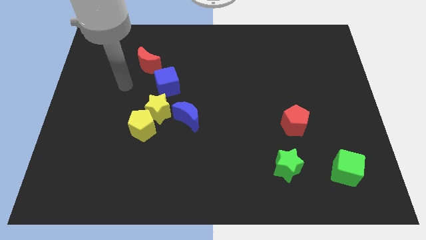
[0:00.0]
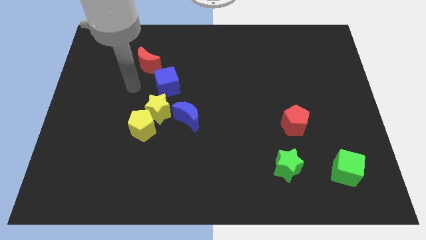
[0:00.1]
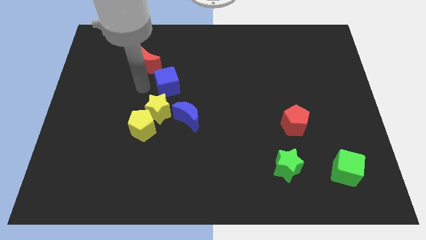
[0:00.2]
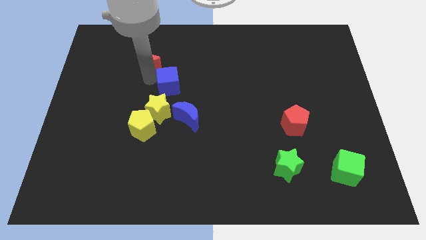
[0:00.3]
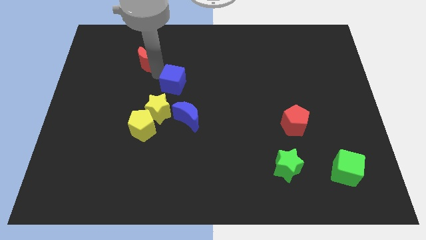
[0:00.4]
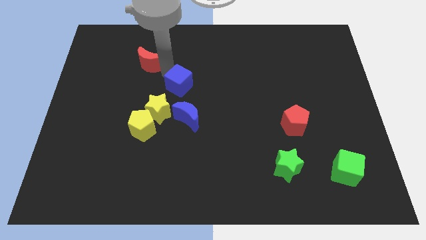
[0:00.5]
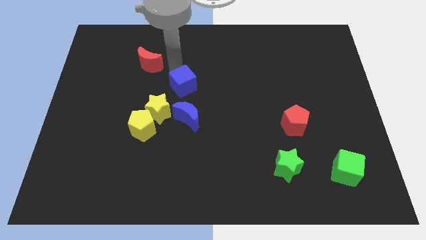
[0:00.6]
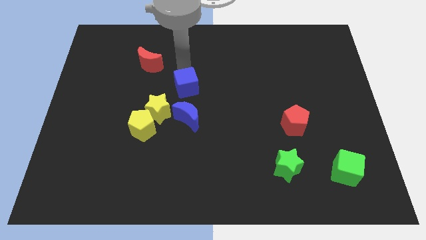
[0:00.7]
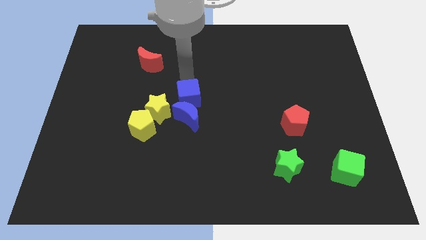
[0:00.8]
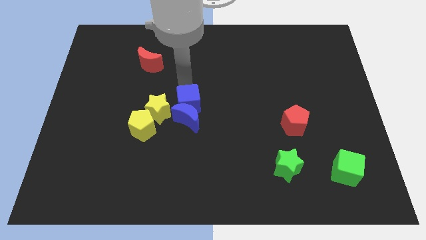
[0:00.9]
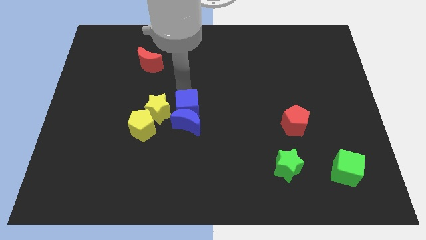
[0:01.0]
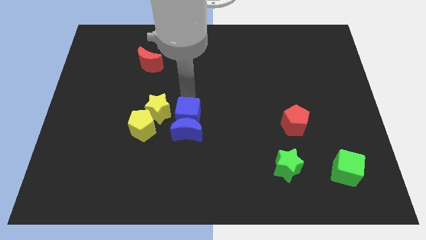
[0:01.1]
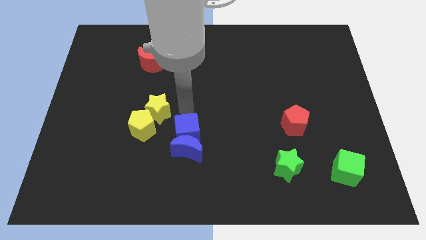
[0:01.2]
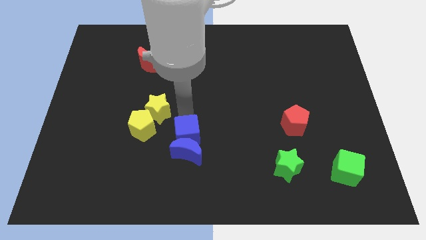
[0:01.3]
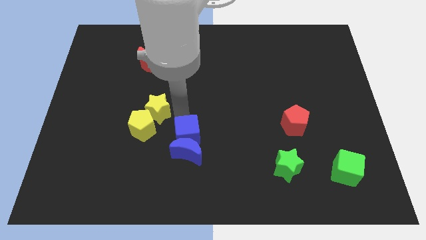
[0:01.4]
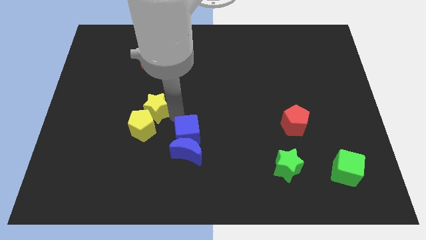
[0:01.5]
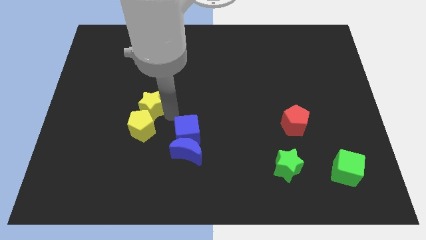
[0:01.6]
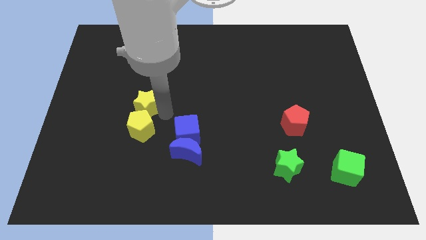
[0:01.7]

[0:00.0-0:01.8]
move the yellow star away from the group

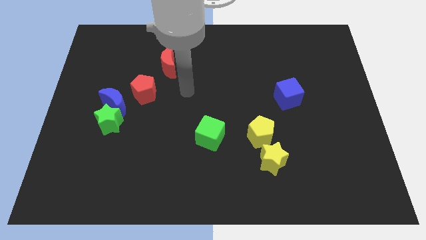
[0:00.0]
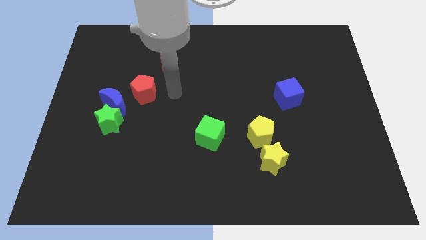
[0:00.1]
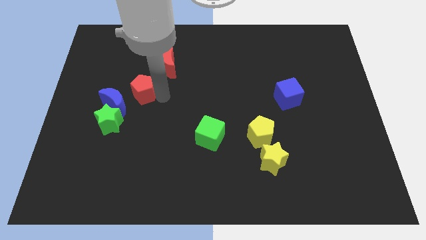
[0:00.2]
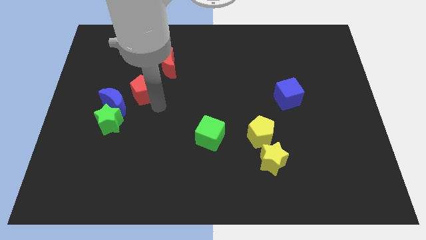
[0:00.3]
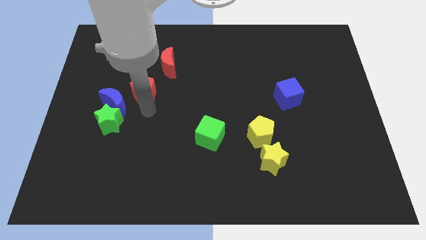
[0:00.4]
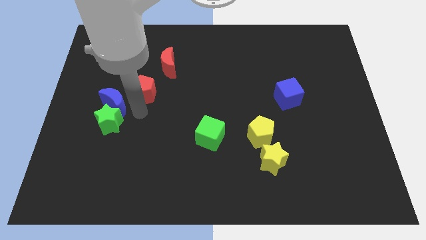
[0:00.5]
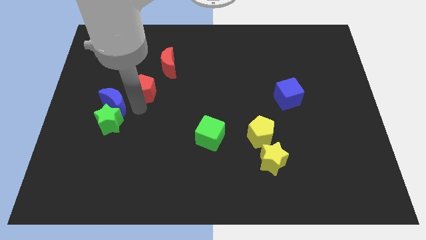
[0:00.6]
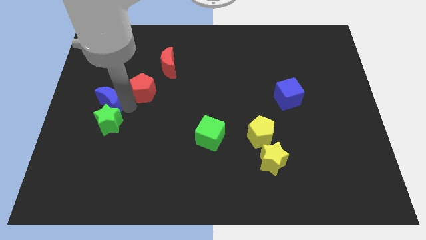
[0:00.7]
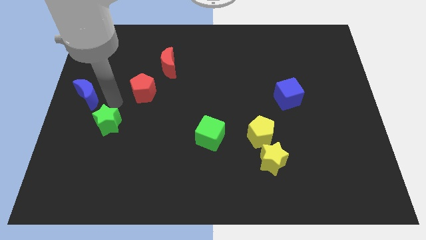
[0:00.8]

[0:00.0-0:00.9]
move the green star away from the blue moon

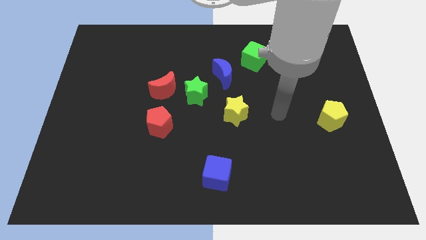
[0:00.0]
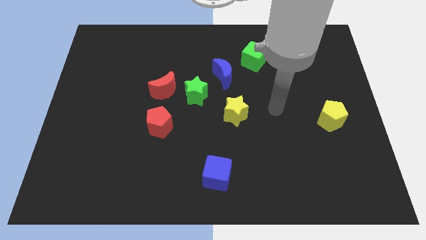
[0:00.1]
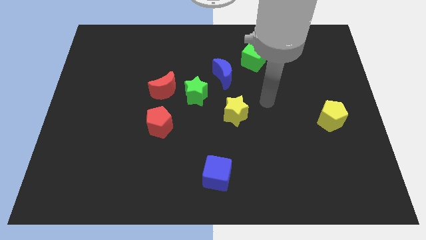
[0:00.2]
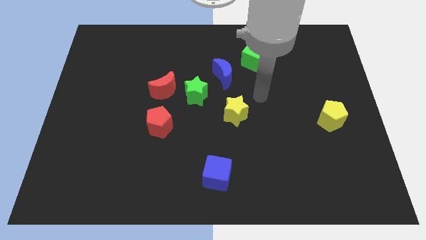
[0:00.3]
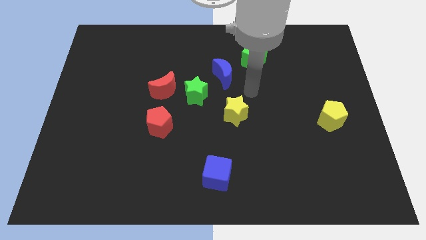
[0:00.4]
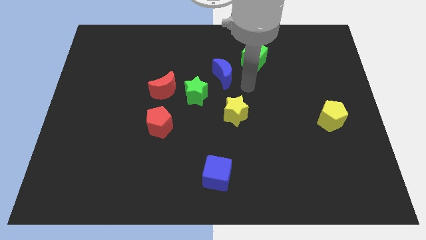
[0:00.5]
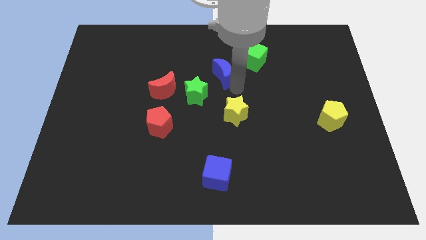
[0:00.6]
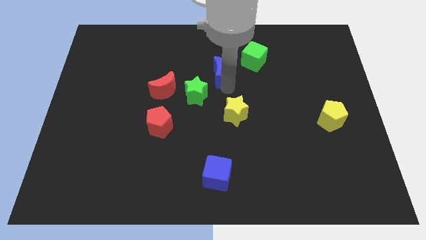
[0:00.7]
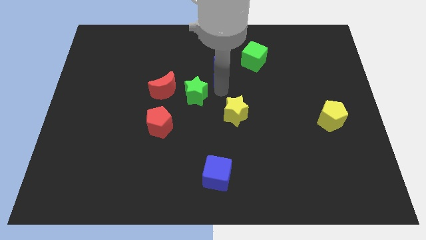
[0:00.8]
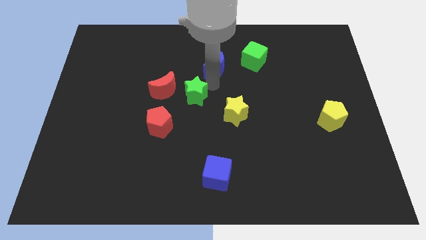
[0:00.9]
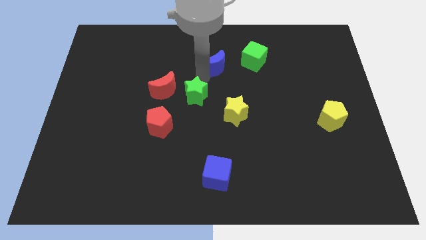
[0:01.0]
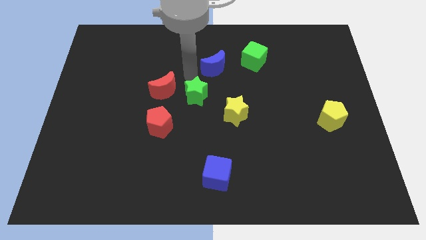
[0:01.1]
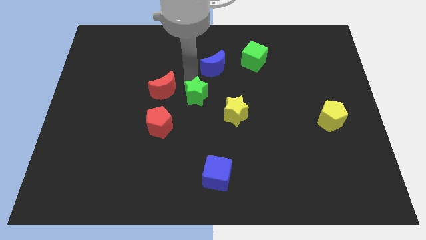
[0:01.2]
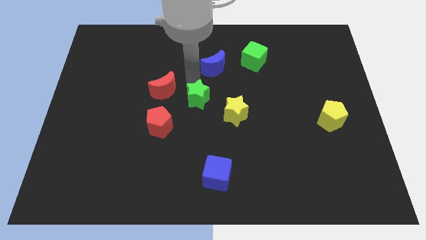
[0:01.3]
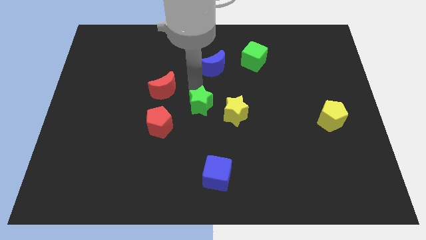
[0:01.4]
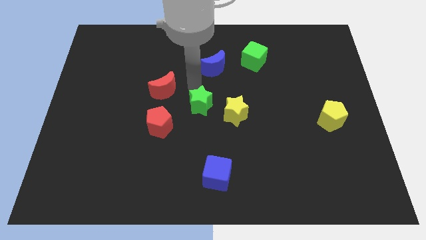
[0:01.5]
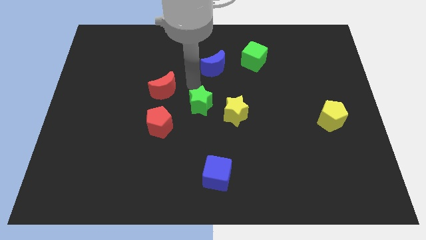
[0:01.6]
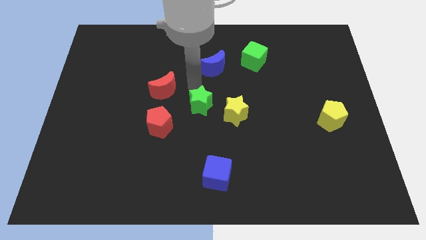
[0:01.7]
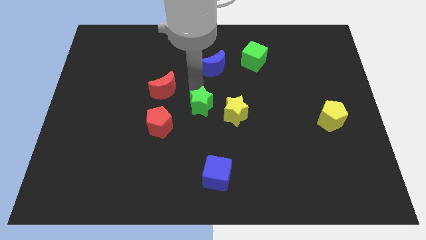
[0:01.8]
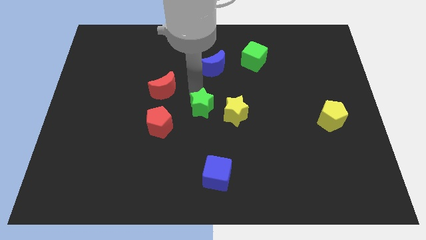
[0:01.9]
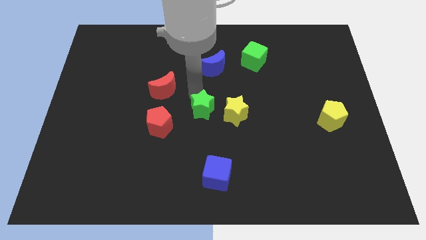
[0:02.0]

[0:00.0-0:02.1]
pull the green star apart from the red moon and blue moon

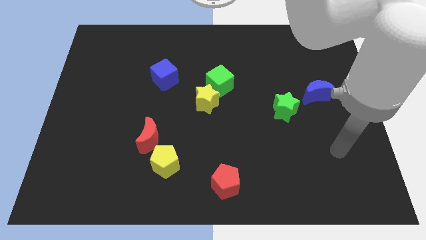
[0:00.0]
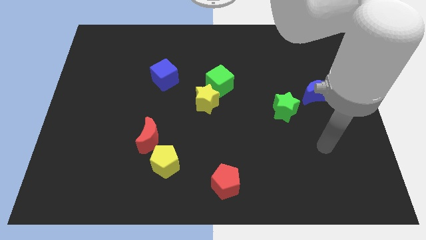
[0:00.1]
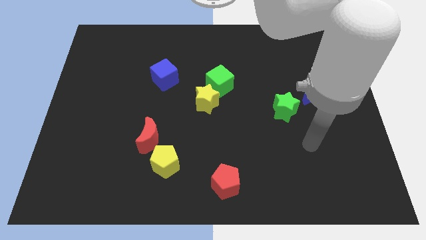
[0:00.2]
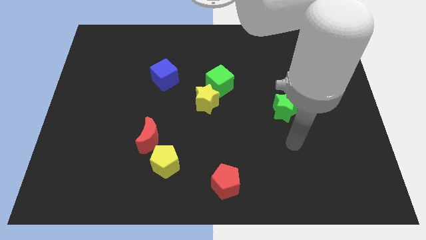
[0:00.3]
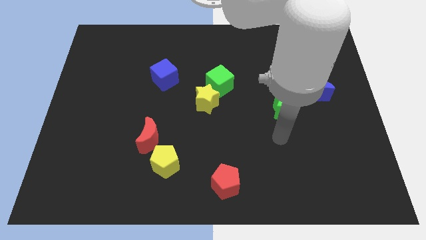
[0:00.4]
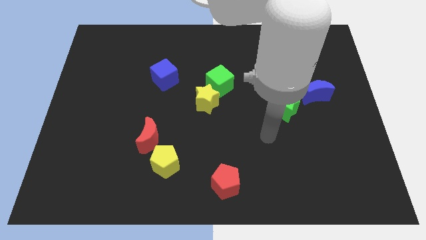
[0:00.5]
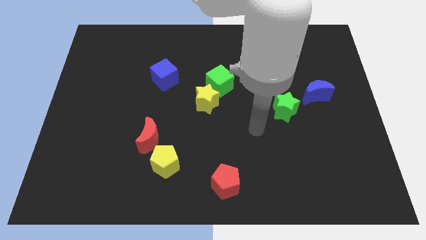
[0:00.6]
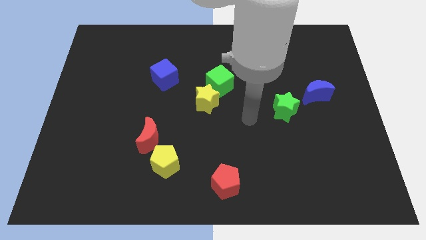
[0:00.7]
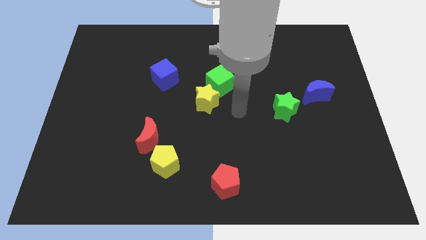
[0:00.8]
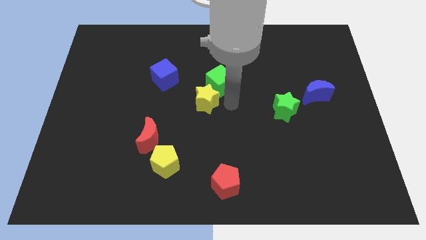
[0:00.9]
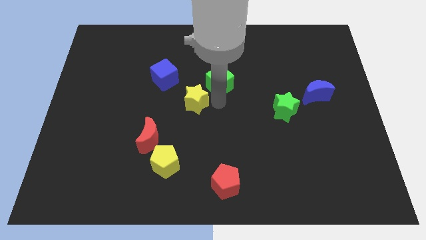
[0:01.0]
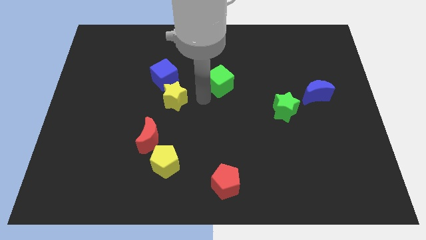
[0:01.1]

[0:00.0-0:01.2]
separate the green cube from the yellow star

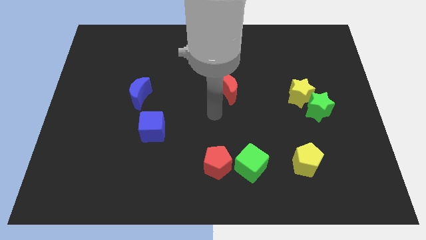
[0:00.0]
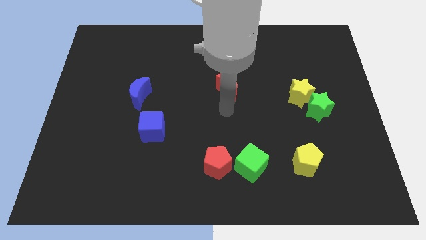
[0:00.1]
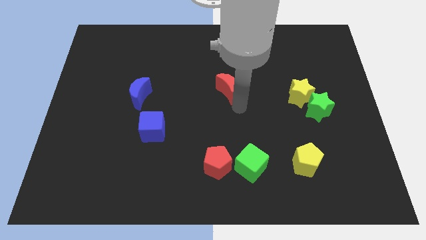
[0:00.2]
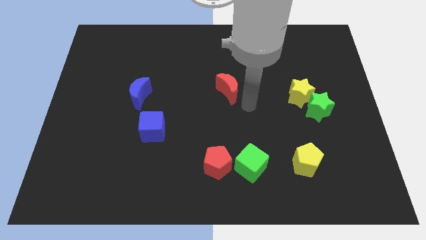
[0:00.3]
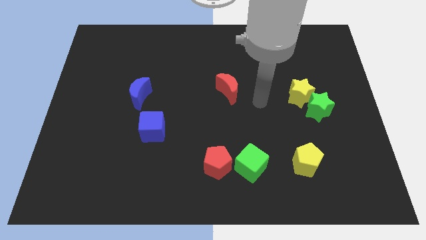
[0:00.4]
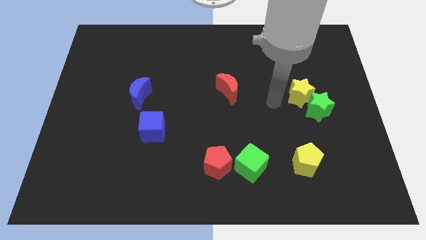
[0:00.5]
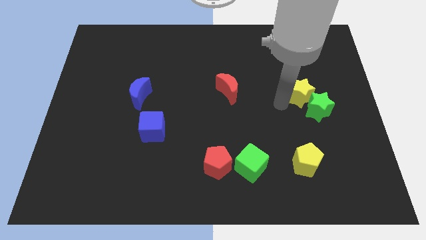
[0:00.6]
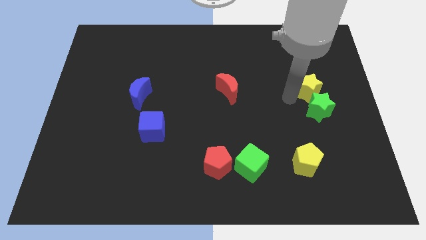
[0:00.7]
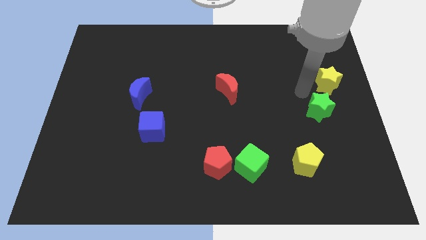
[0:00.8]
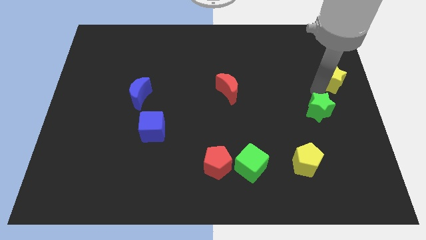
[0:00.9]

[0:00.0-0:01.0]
move the green star away from the yellow star

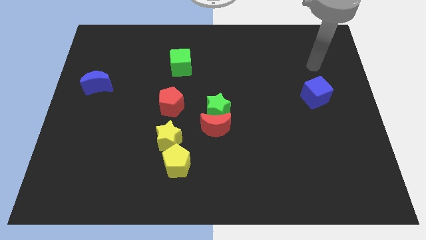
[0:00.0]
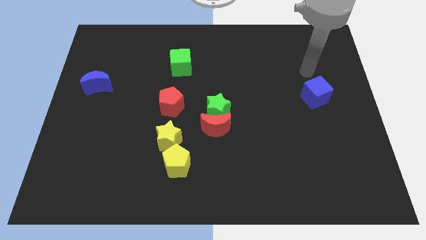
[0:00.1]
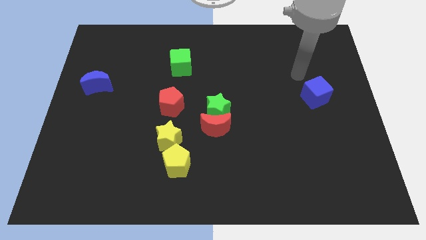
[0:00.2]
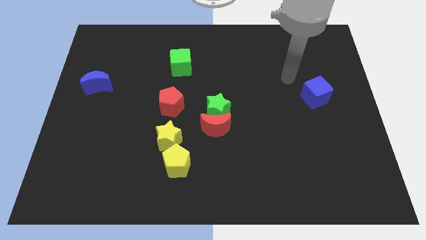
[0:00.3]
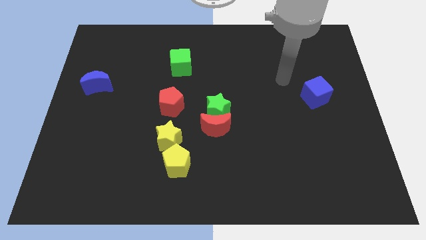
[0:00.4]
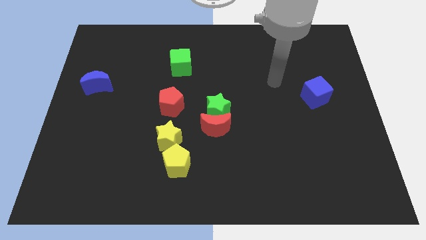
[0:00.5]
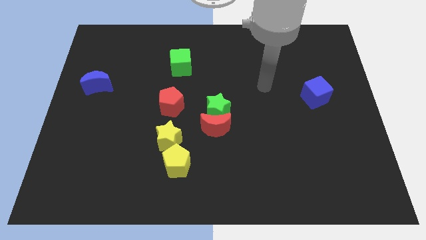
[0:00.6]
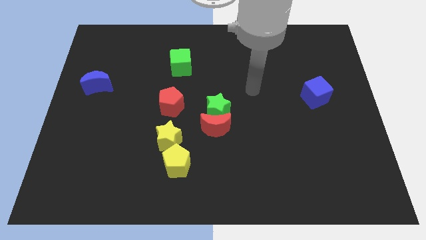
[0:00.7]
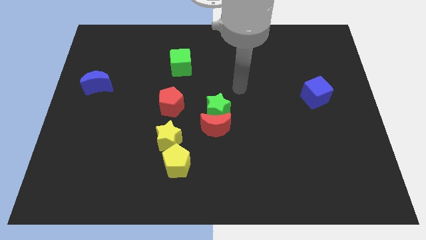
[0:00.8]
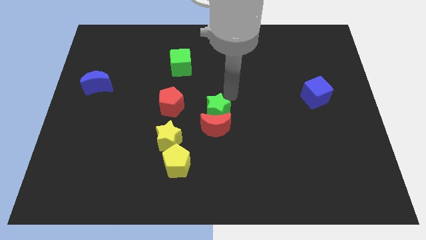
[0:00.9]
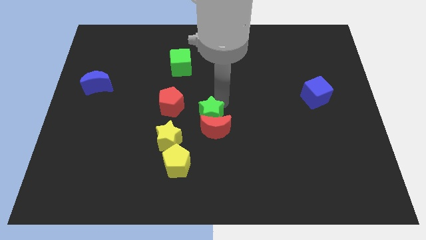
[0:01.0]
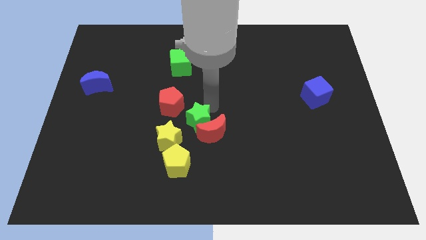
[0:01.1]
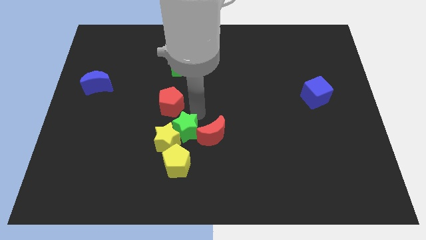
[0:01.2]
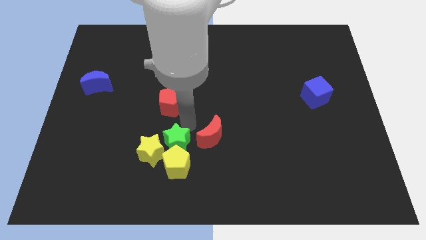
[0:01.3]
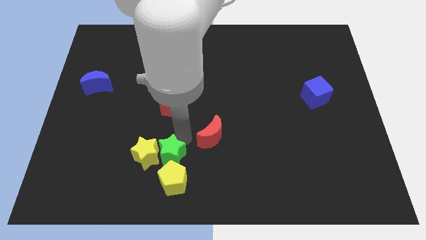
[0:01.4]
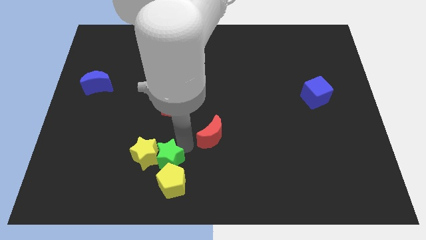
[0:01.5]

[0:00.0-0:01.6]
pull the red moon apart from the green star

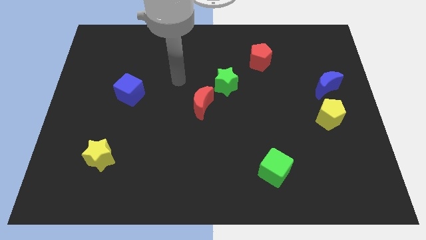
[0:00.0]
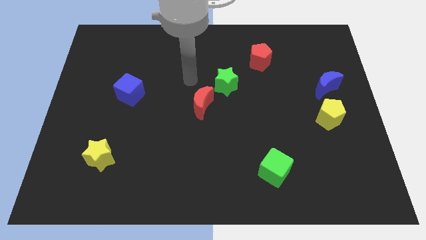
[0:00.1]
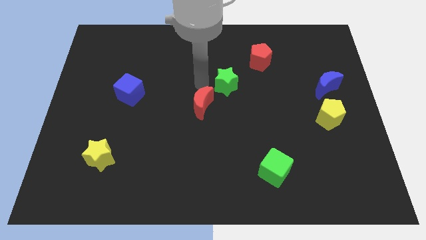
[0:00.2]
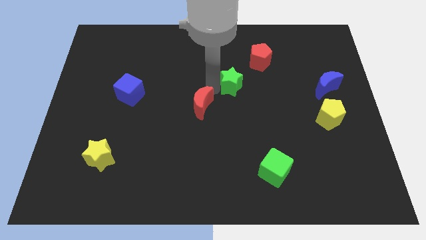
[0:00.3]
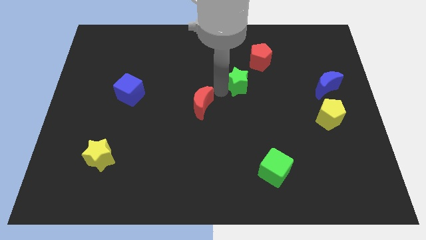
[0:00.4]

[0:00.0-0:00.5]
separate the red moon from the green star

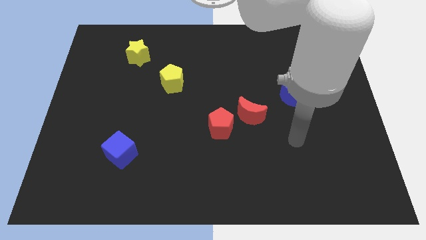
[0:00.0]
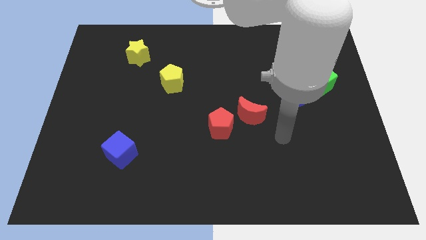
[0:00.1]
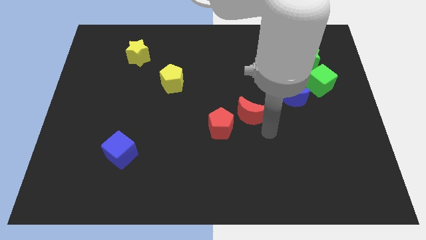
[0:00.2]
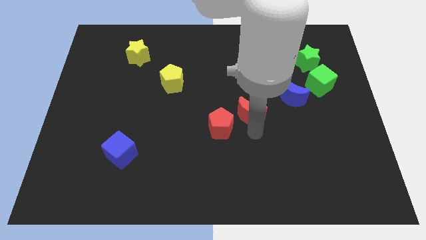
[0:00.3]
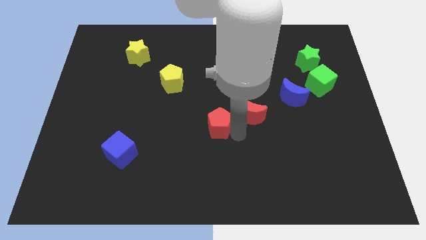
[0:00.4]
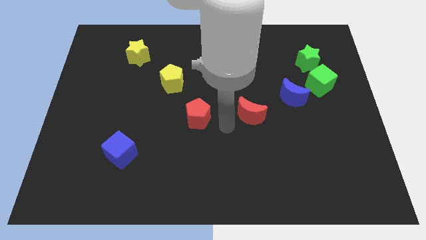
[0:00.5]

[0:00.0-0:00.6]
separate the red moon from the red pentagon
